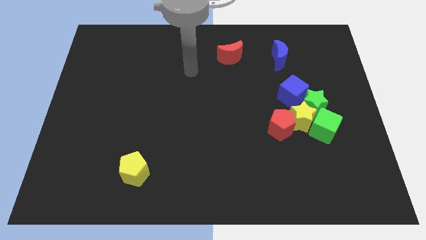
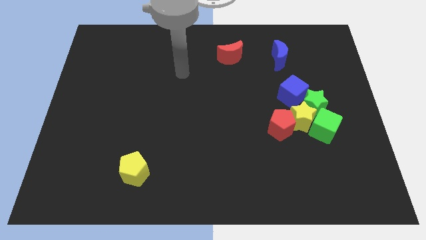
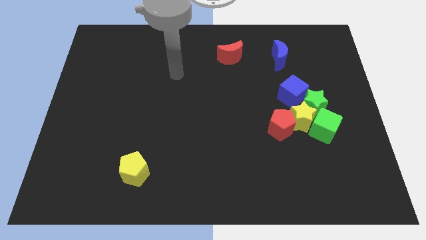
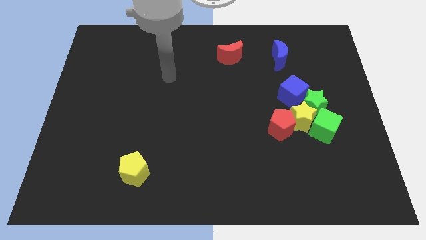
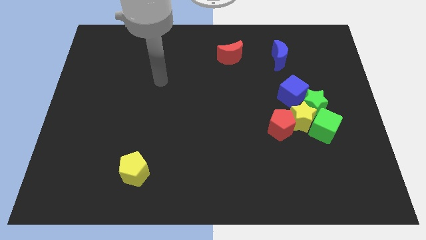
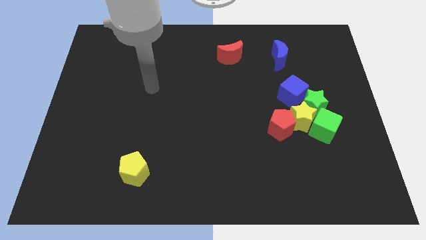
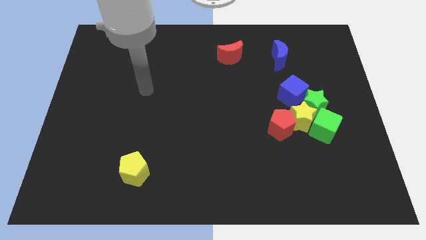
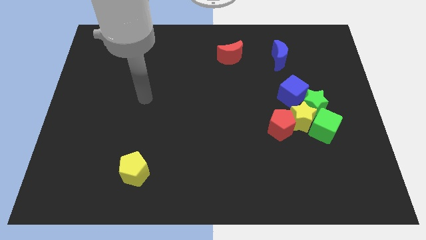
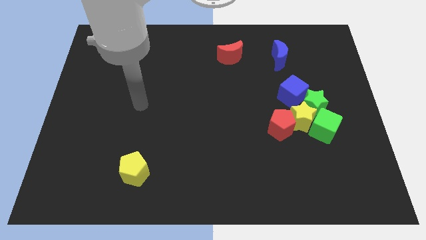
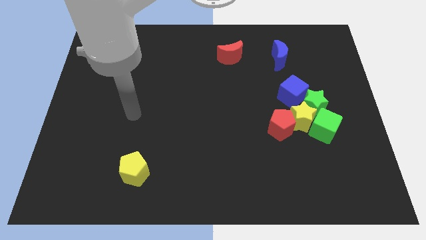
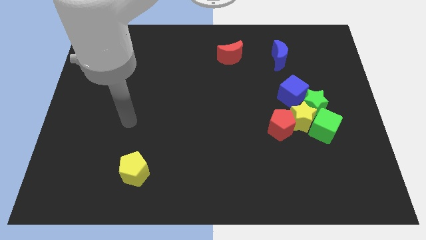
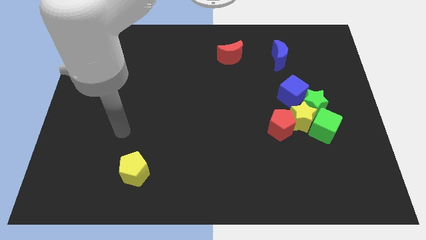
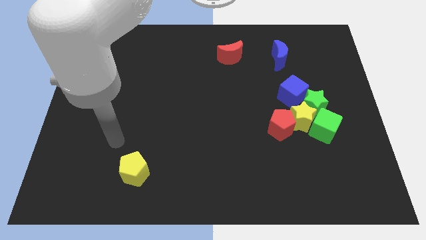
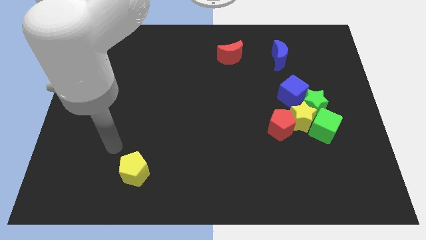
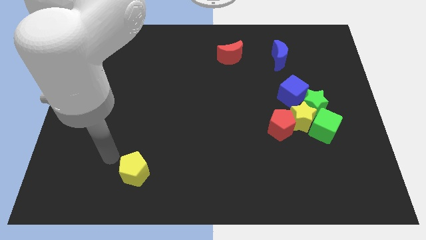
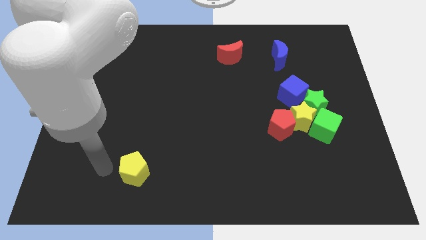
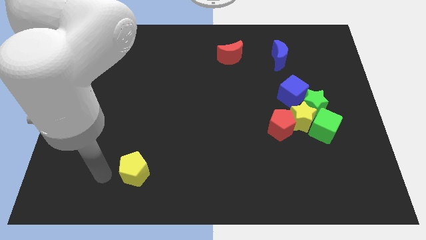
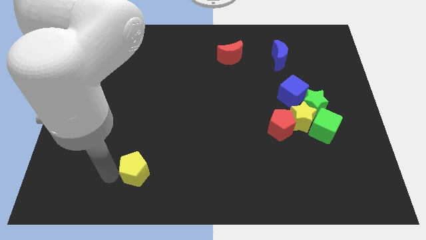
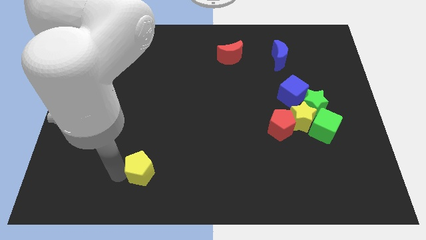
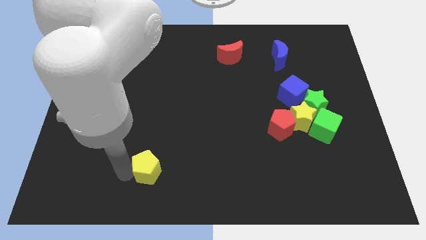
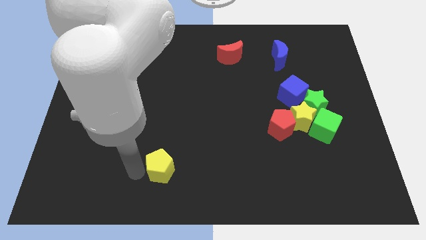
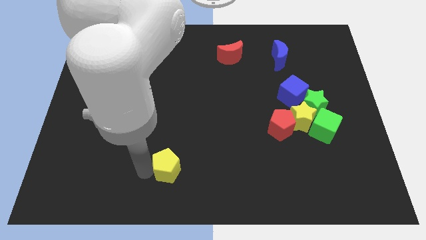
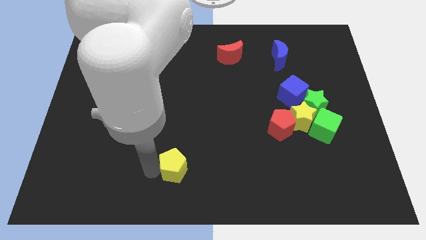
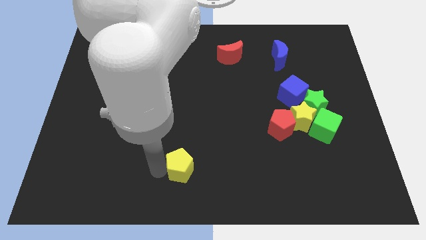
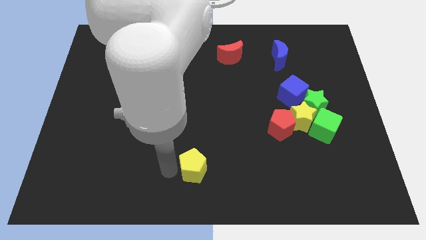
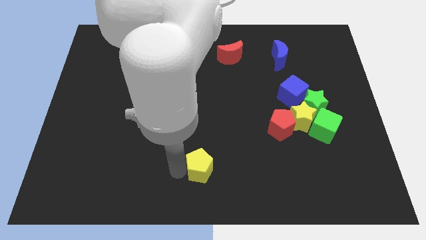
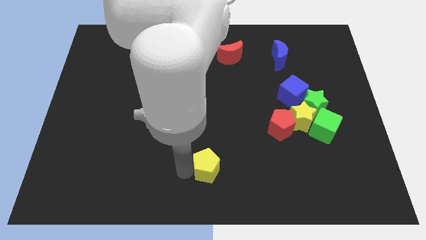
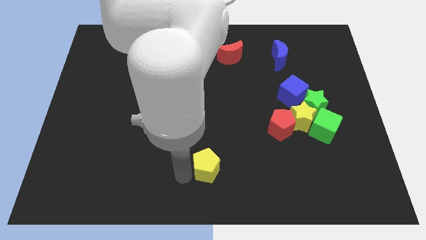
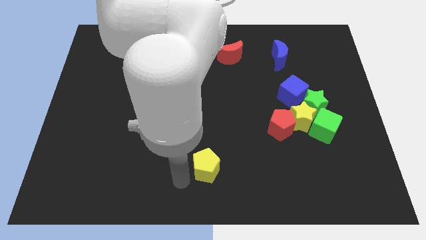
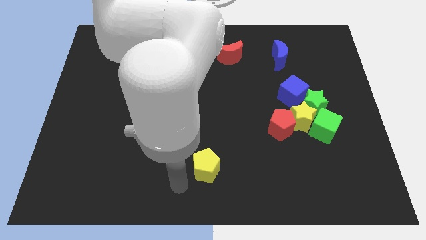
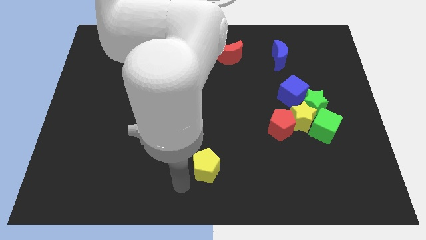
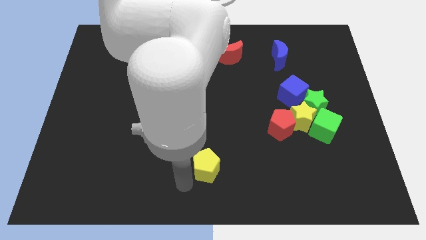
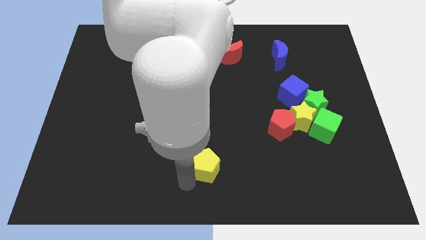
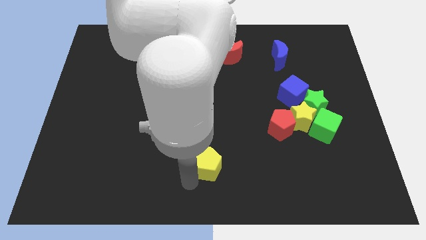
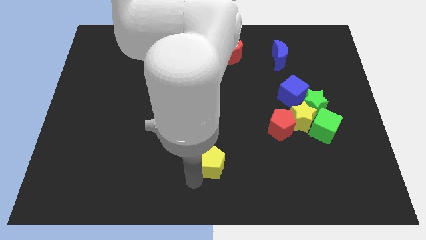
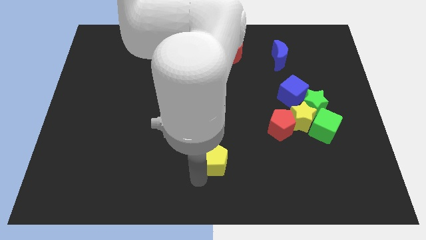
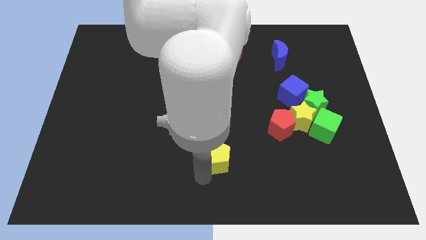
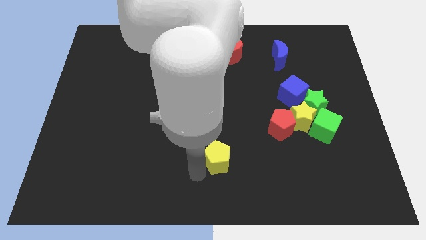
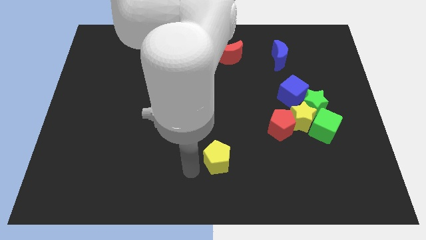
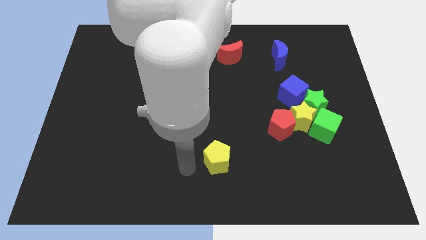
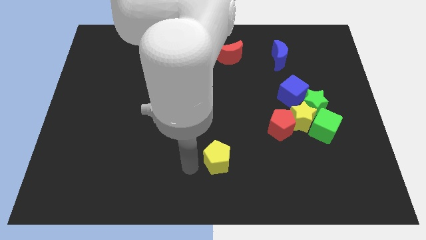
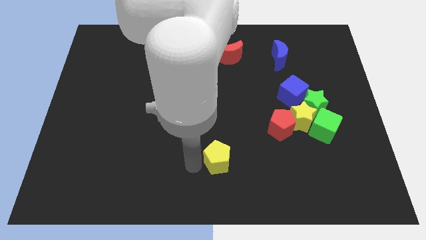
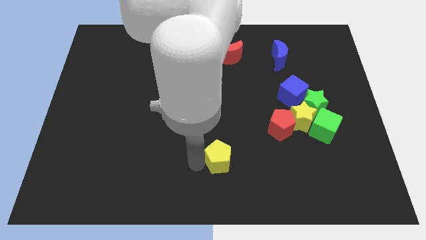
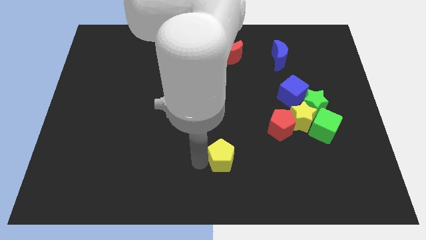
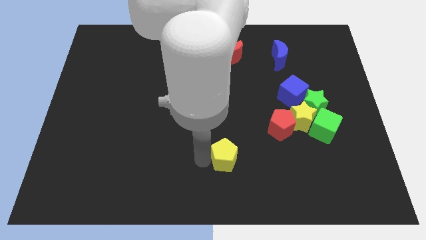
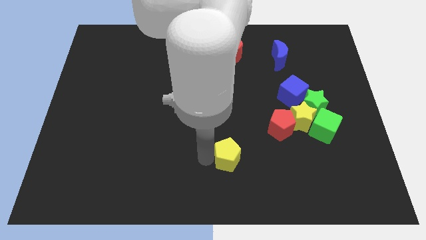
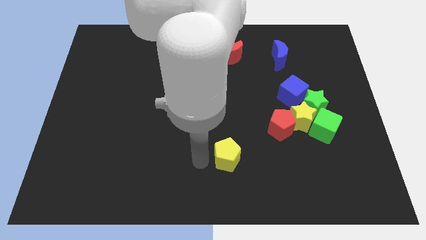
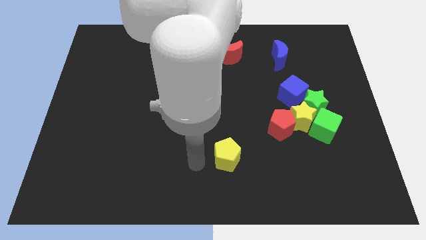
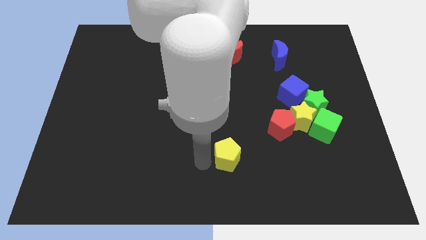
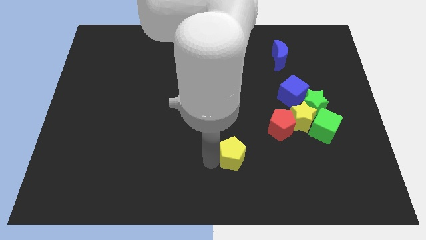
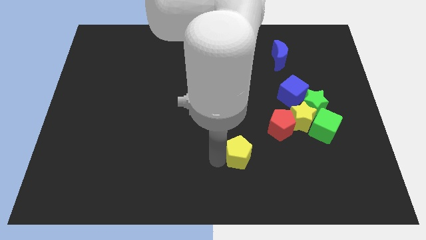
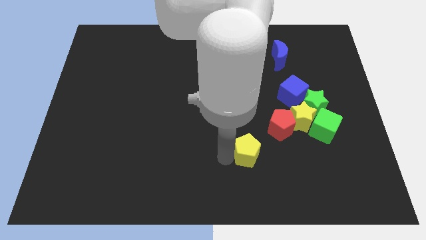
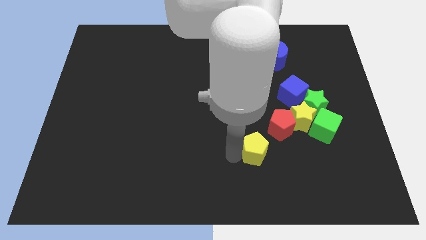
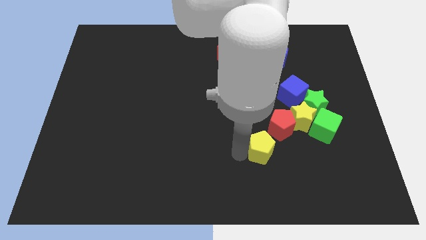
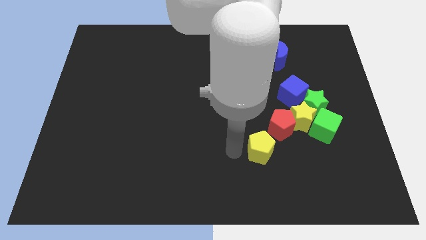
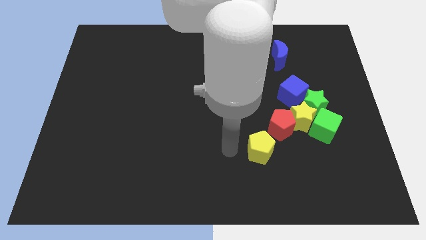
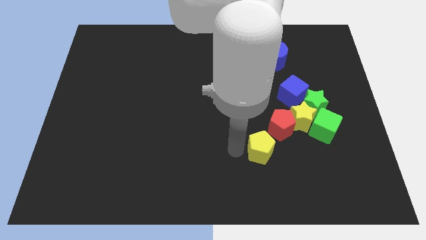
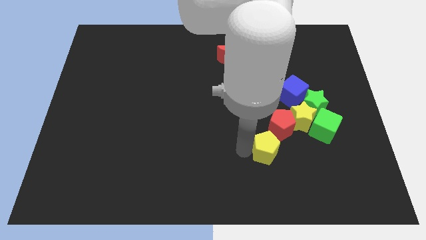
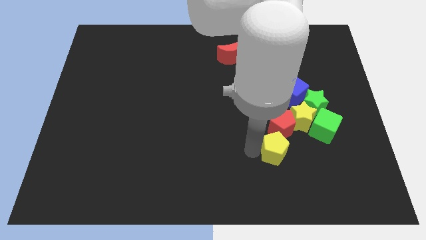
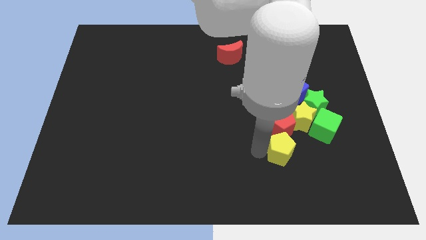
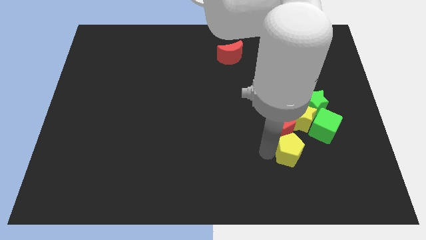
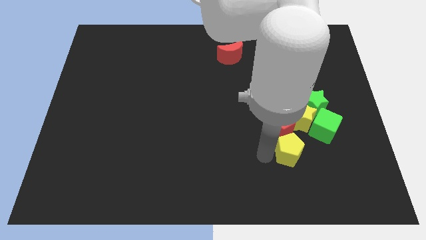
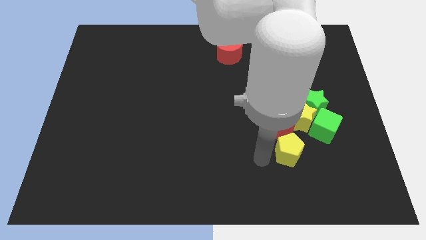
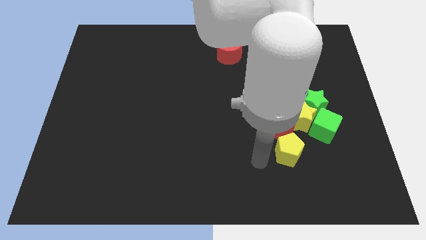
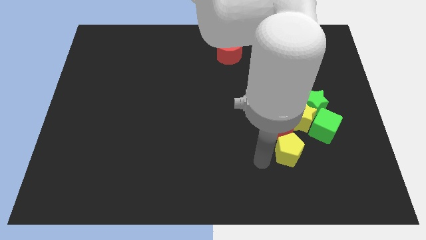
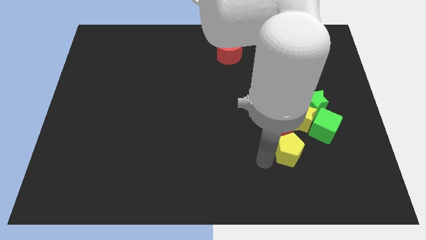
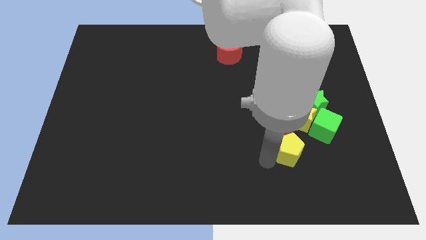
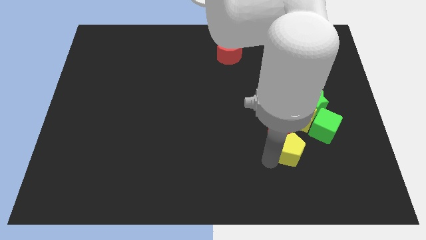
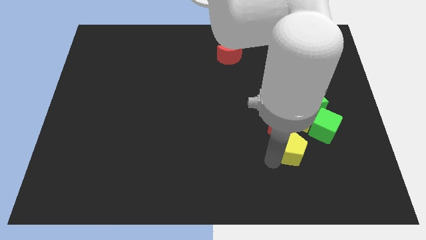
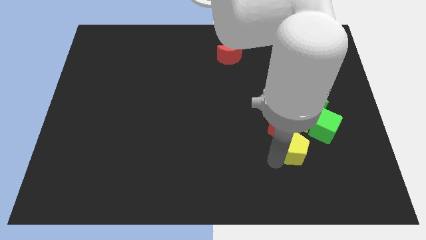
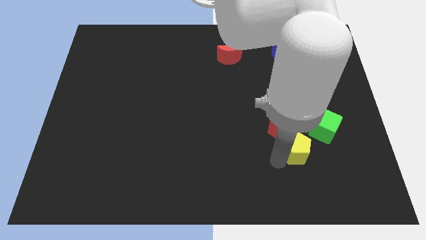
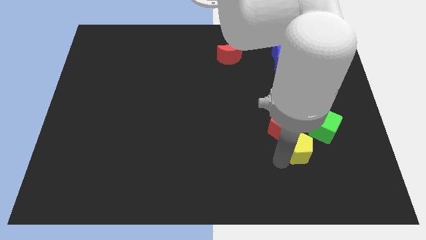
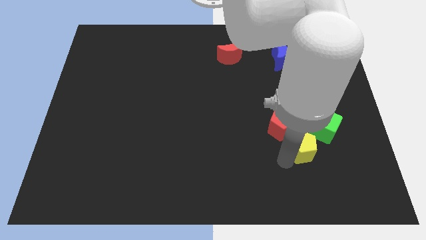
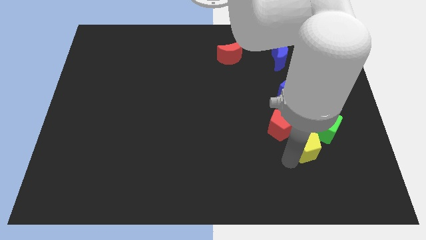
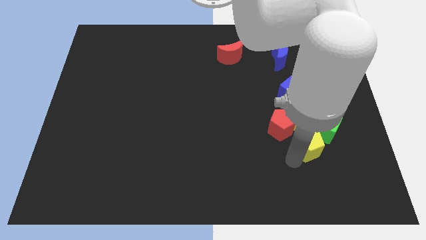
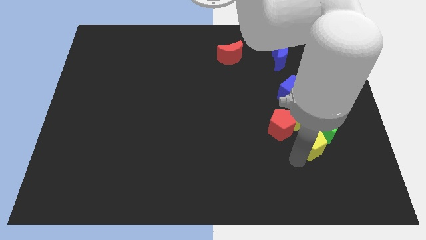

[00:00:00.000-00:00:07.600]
move the yellow pentagon towards the green cube
